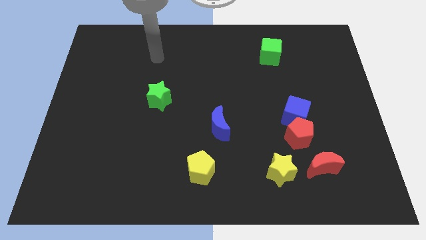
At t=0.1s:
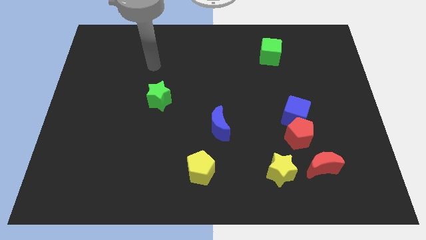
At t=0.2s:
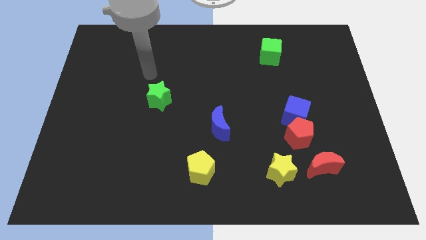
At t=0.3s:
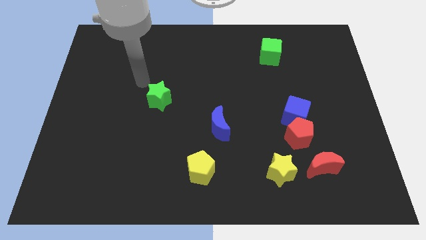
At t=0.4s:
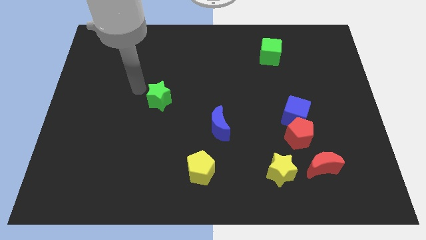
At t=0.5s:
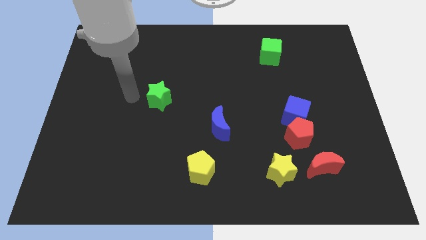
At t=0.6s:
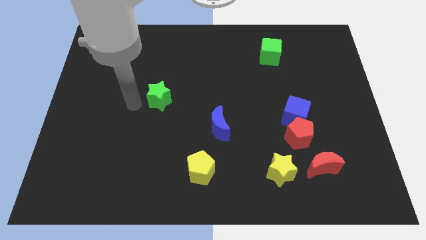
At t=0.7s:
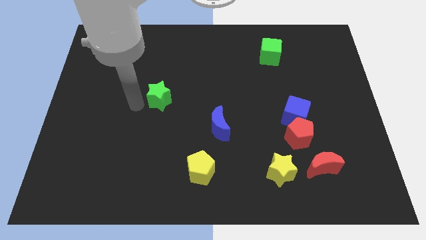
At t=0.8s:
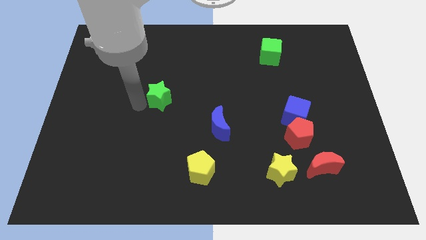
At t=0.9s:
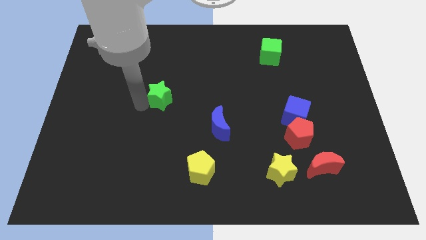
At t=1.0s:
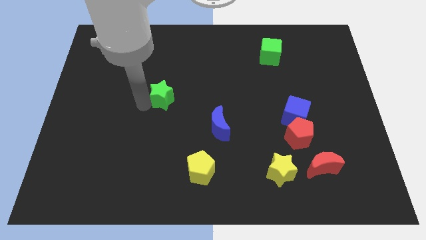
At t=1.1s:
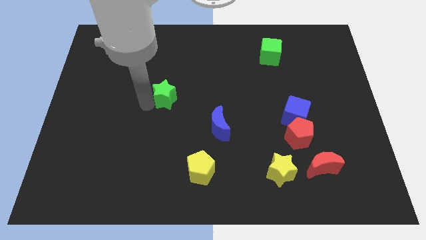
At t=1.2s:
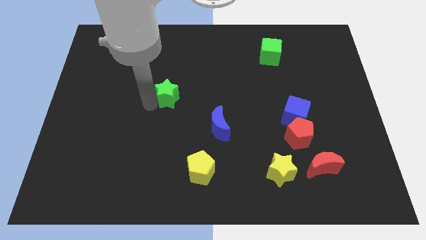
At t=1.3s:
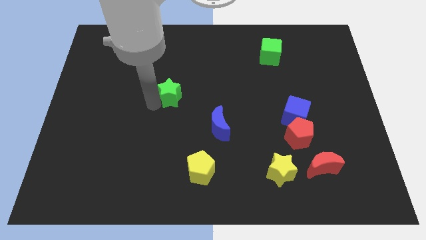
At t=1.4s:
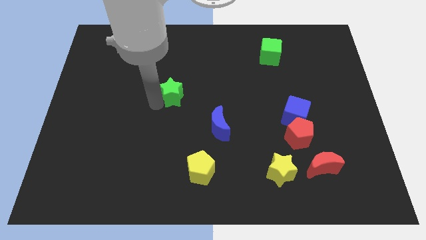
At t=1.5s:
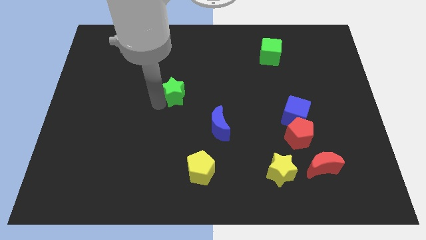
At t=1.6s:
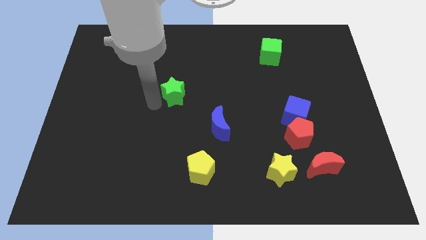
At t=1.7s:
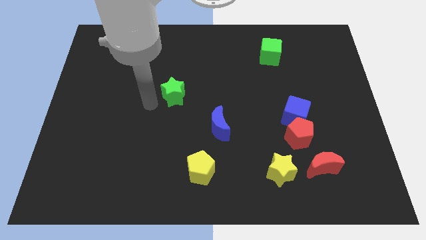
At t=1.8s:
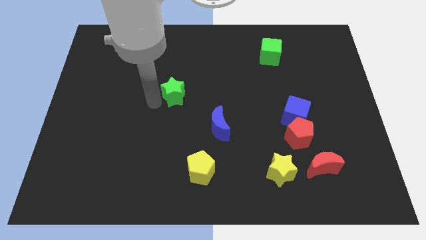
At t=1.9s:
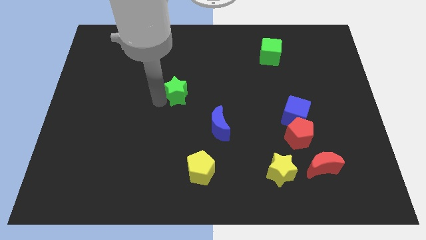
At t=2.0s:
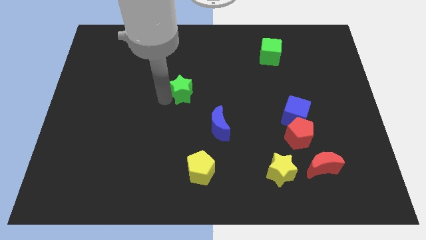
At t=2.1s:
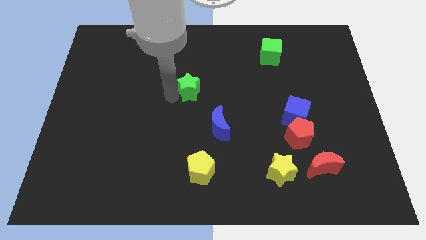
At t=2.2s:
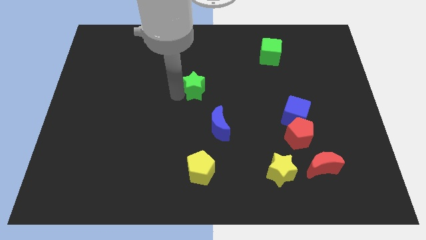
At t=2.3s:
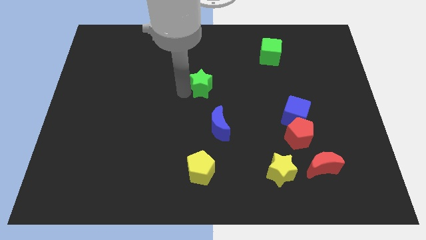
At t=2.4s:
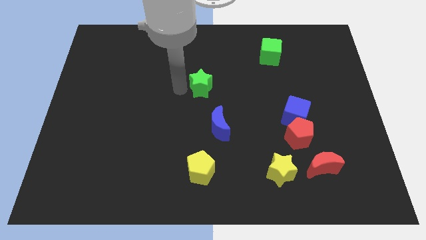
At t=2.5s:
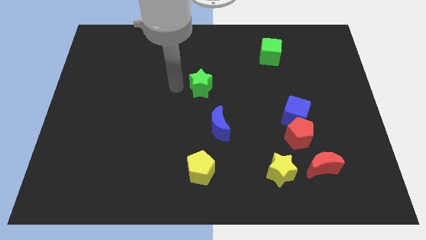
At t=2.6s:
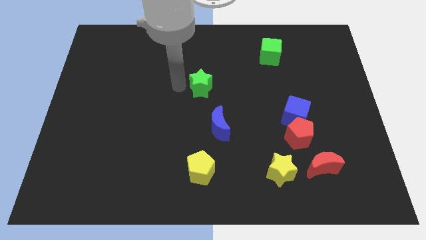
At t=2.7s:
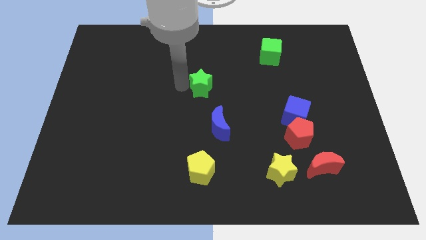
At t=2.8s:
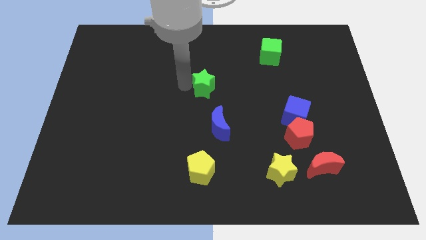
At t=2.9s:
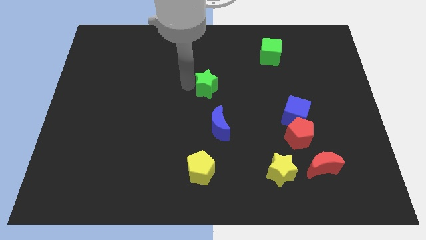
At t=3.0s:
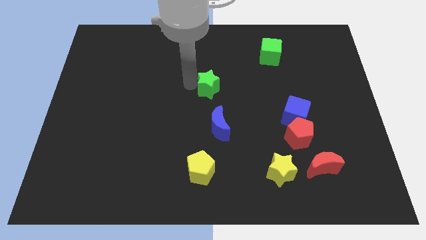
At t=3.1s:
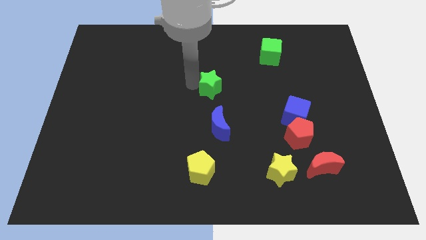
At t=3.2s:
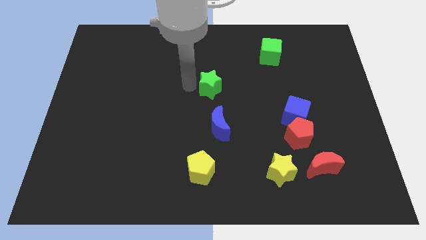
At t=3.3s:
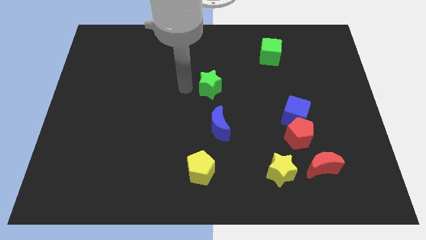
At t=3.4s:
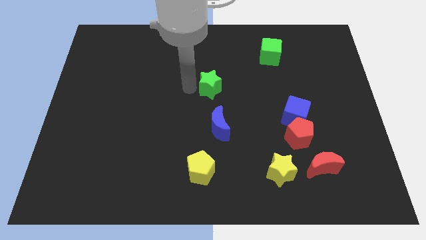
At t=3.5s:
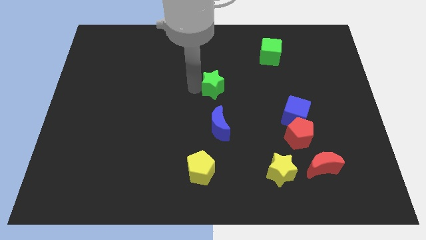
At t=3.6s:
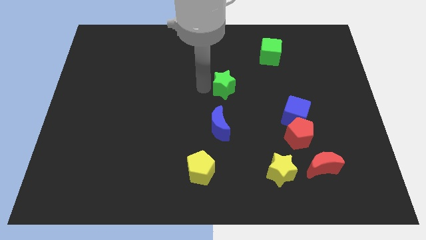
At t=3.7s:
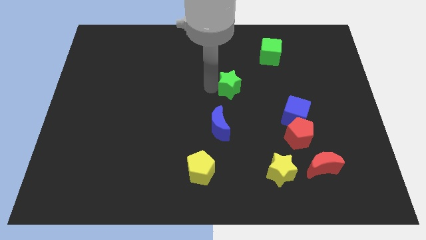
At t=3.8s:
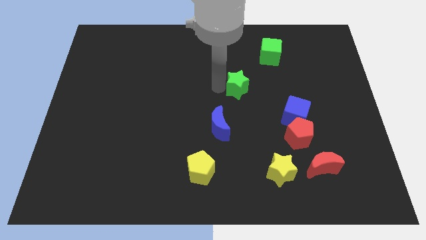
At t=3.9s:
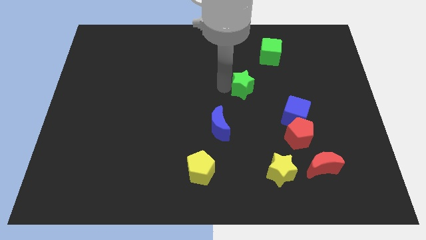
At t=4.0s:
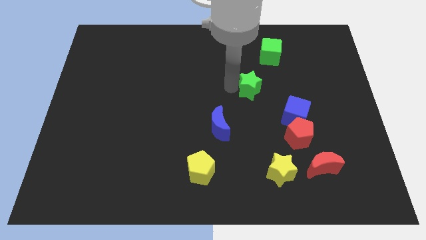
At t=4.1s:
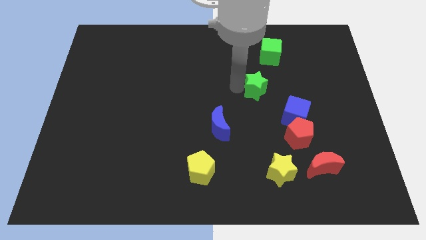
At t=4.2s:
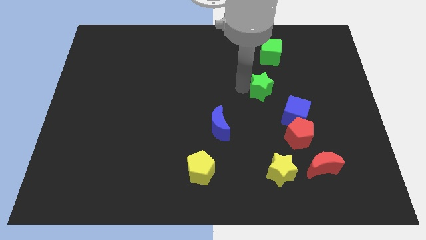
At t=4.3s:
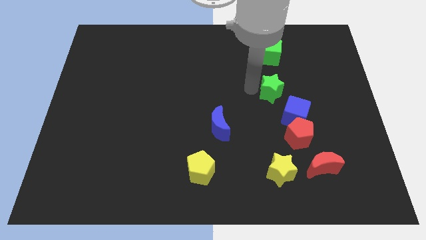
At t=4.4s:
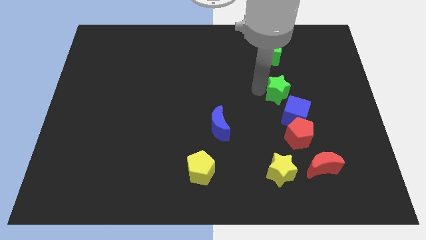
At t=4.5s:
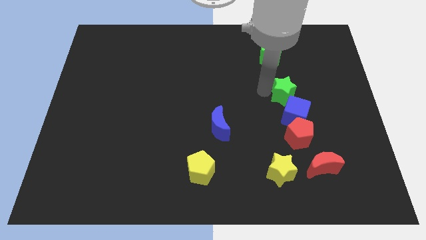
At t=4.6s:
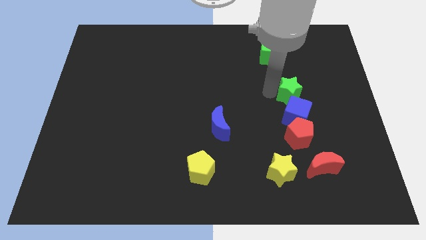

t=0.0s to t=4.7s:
put the green star to the top right side of the blue cube

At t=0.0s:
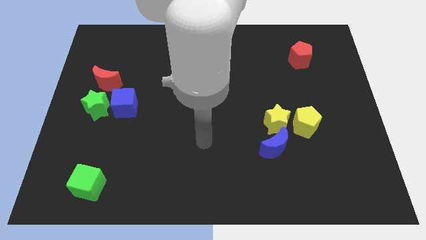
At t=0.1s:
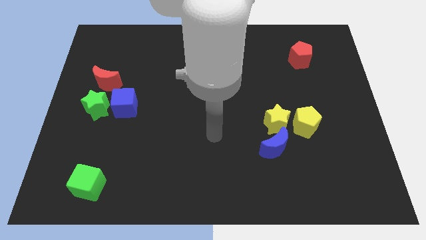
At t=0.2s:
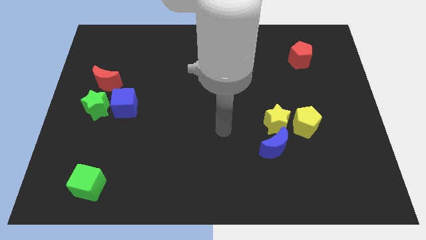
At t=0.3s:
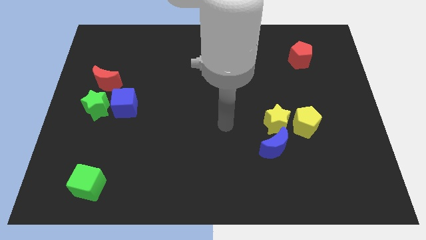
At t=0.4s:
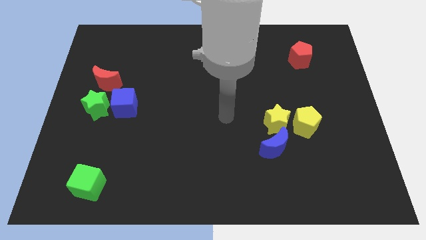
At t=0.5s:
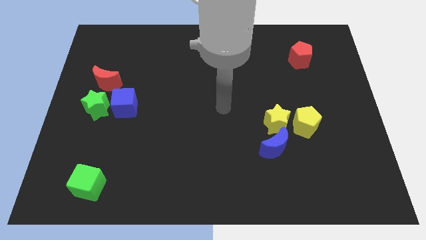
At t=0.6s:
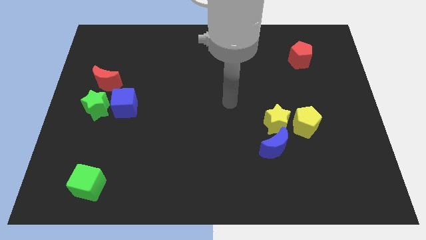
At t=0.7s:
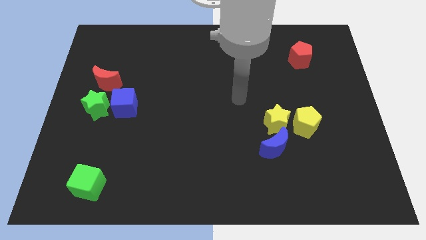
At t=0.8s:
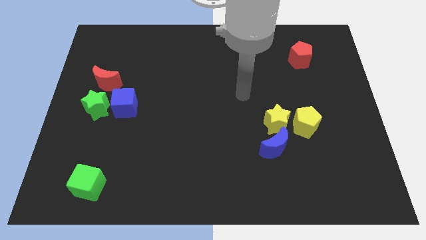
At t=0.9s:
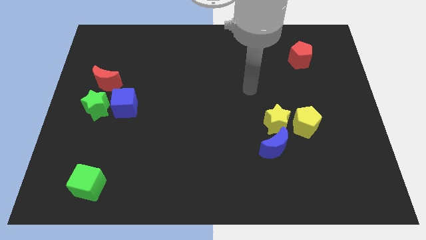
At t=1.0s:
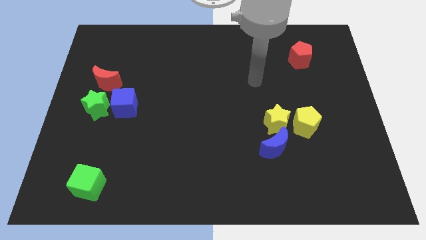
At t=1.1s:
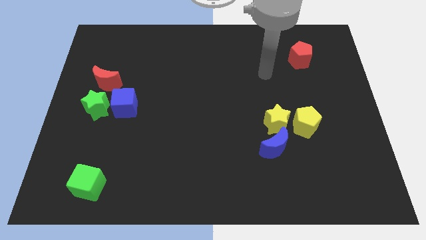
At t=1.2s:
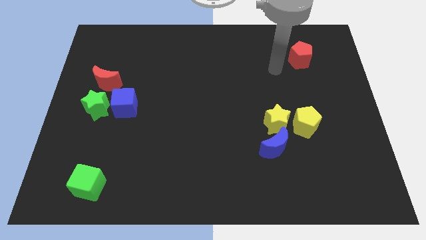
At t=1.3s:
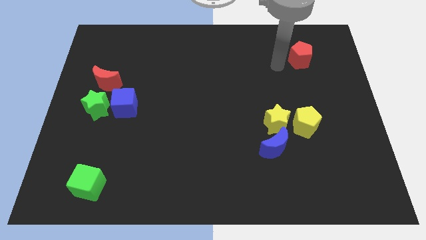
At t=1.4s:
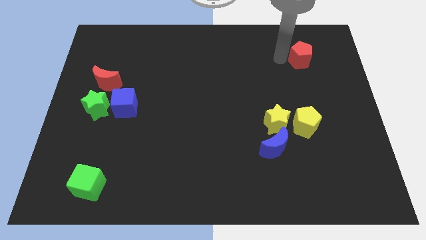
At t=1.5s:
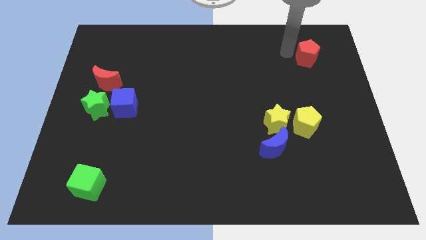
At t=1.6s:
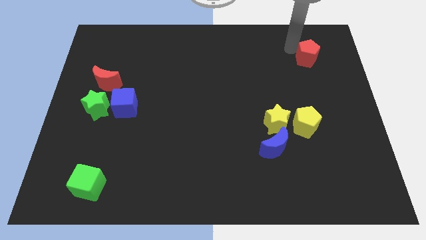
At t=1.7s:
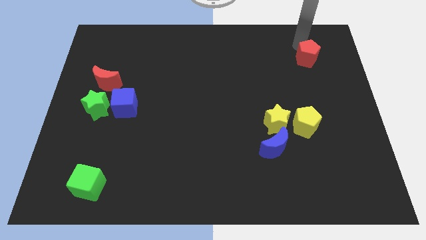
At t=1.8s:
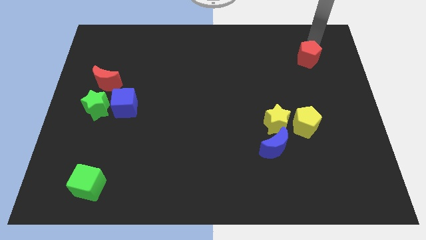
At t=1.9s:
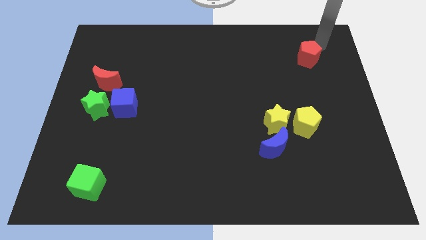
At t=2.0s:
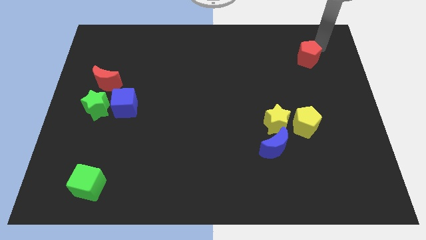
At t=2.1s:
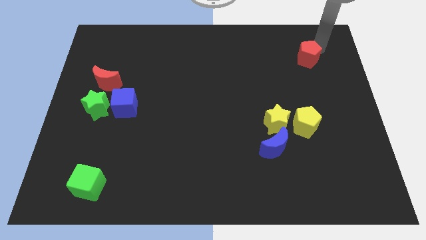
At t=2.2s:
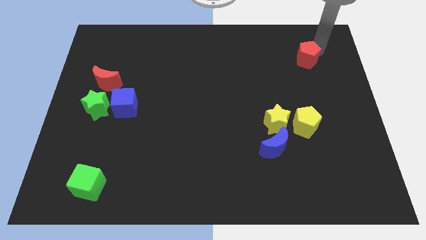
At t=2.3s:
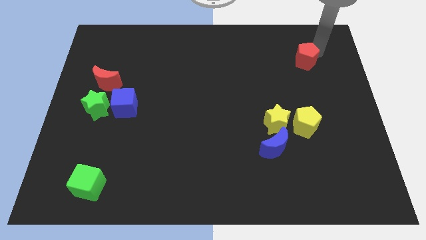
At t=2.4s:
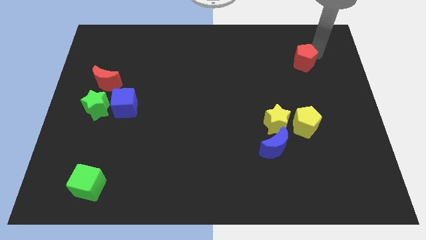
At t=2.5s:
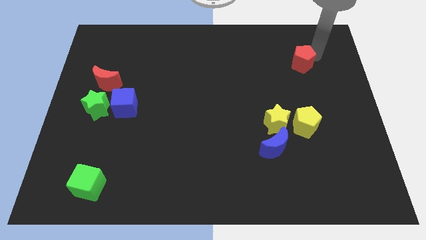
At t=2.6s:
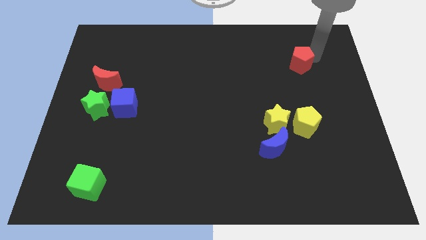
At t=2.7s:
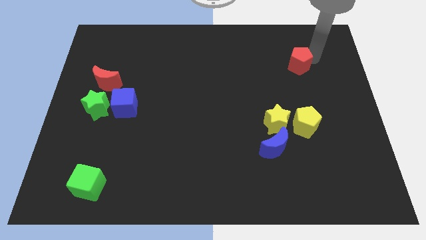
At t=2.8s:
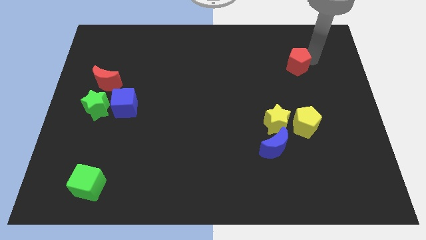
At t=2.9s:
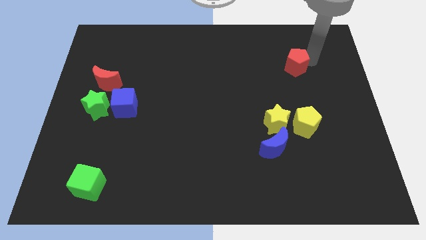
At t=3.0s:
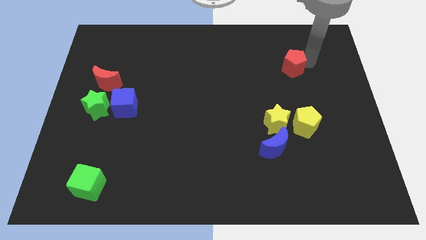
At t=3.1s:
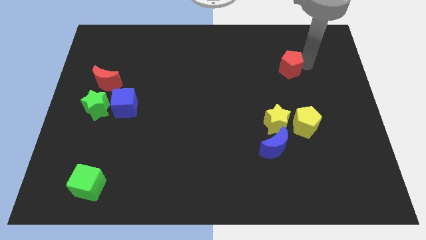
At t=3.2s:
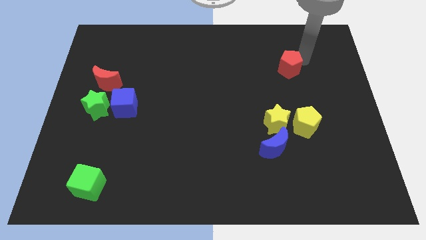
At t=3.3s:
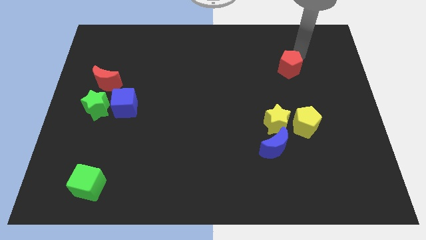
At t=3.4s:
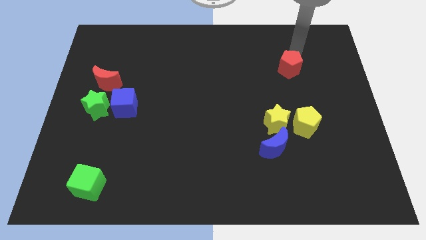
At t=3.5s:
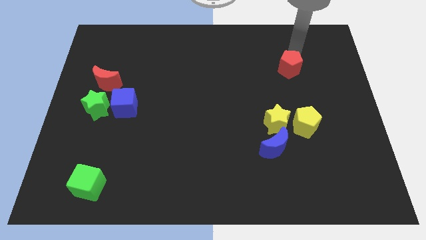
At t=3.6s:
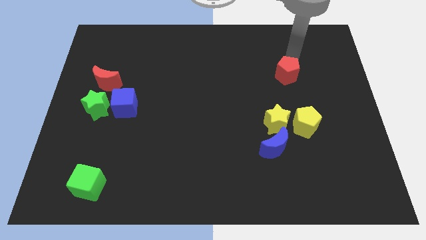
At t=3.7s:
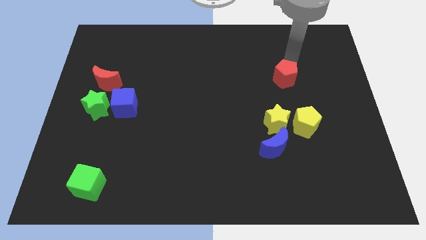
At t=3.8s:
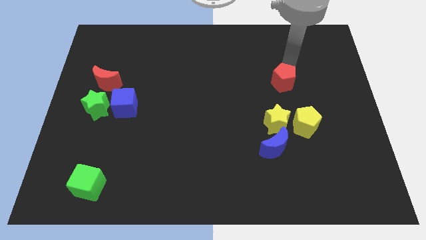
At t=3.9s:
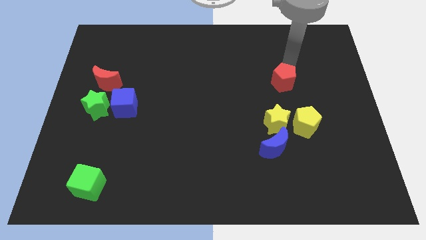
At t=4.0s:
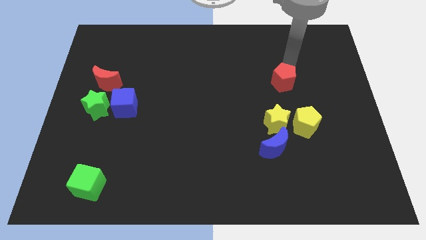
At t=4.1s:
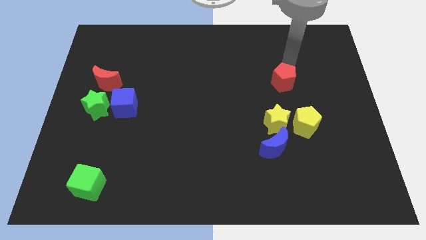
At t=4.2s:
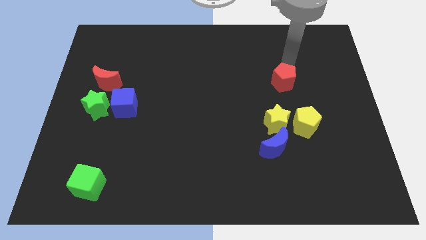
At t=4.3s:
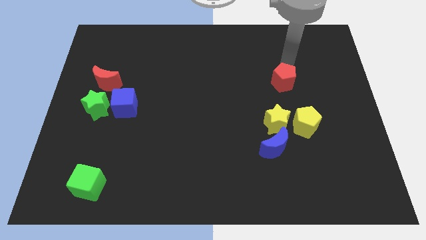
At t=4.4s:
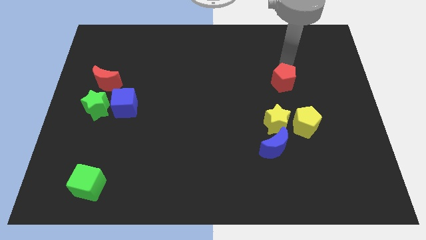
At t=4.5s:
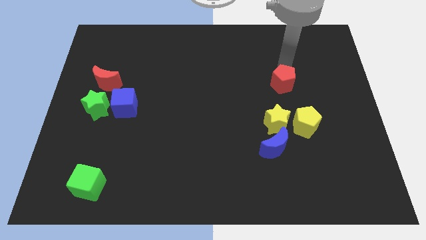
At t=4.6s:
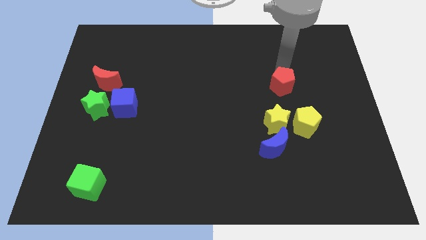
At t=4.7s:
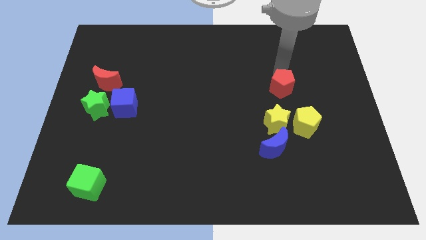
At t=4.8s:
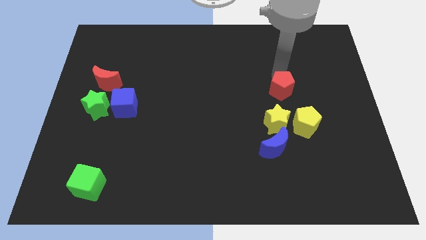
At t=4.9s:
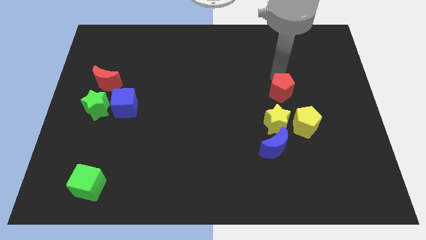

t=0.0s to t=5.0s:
move the red pentagon diagonally up and to the left of the yellow pentagon
